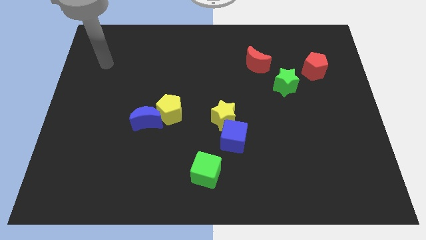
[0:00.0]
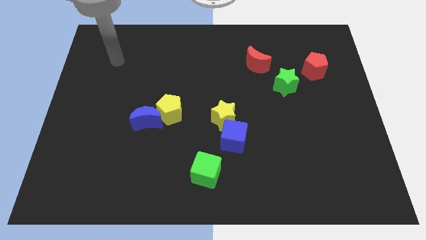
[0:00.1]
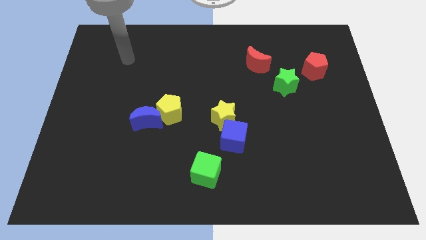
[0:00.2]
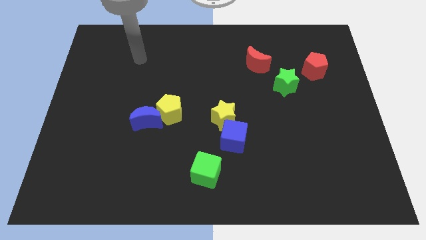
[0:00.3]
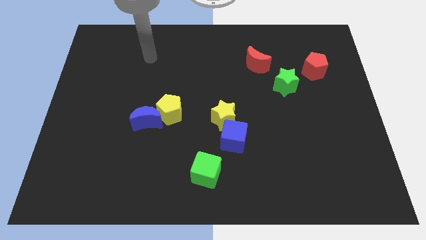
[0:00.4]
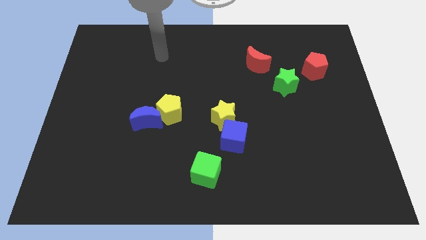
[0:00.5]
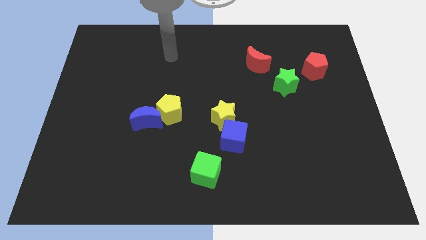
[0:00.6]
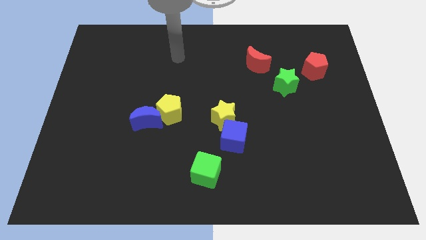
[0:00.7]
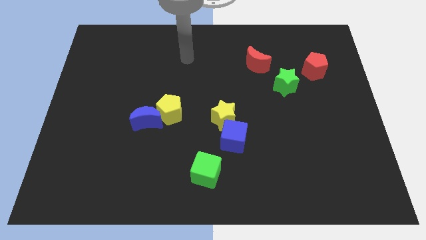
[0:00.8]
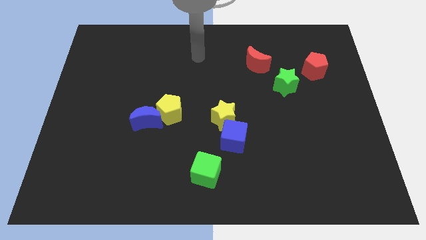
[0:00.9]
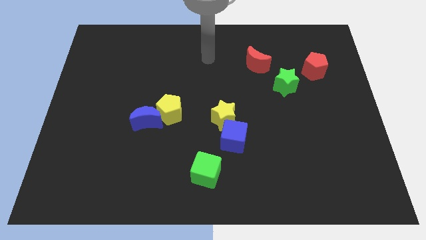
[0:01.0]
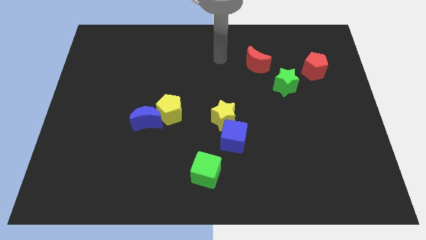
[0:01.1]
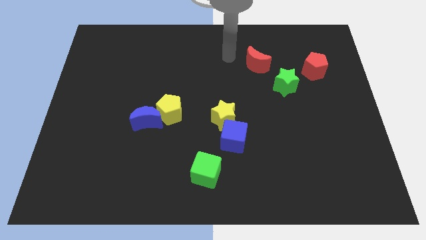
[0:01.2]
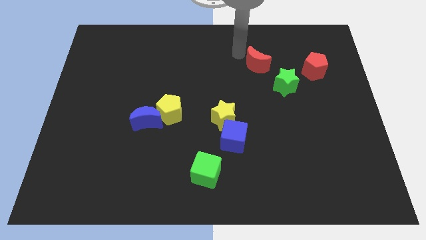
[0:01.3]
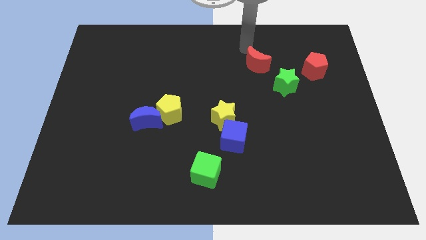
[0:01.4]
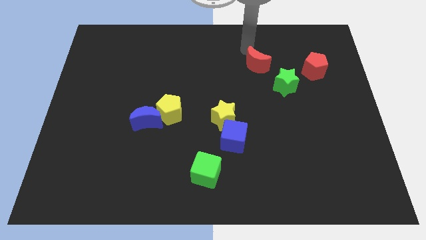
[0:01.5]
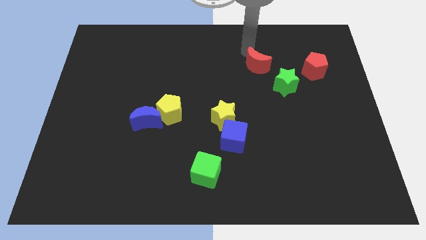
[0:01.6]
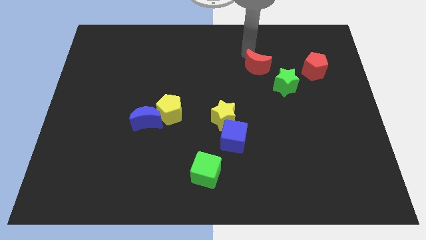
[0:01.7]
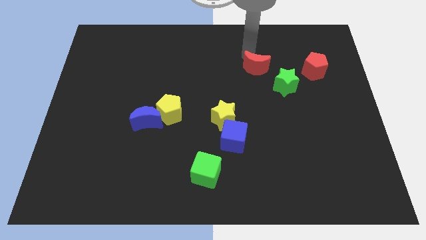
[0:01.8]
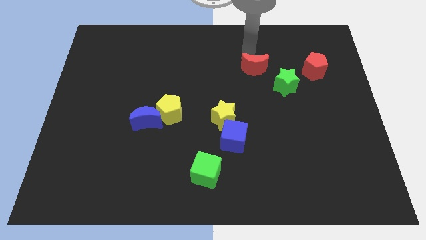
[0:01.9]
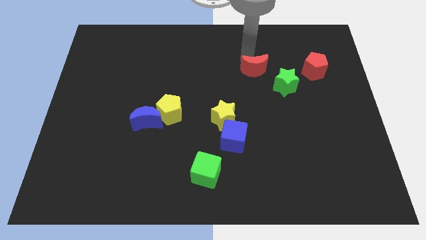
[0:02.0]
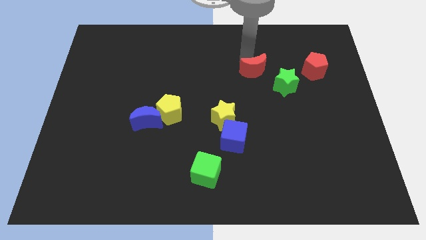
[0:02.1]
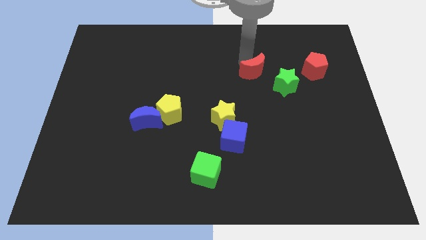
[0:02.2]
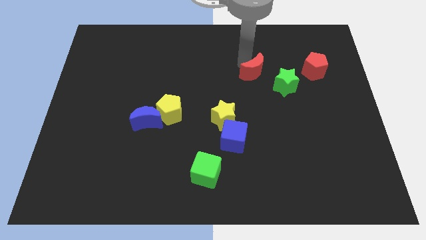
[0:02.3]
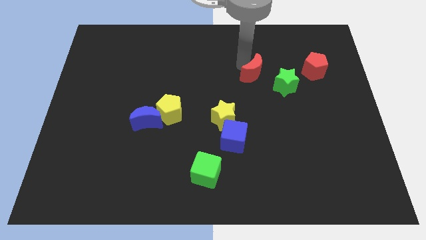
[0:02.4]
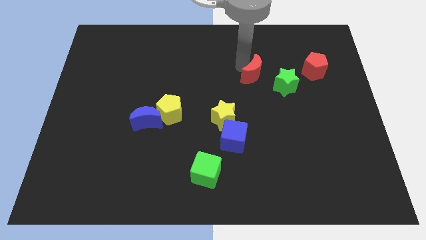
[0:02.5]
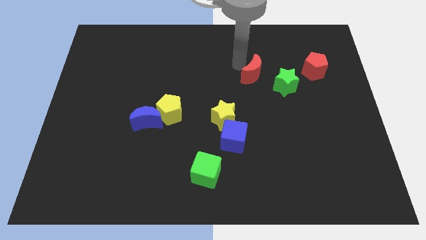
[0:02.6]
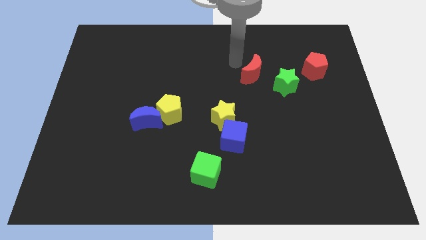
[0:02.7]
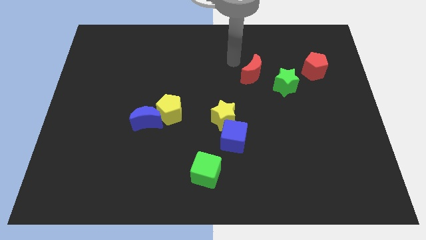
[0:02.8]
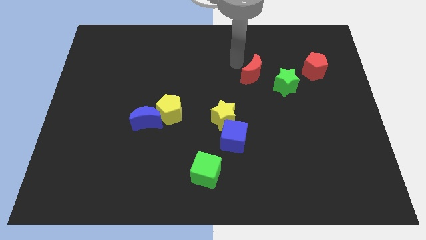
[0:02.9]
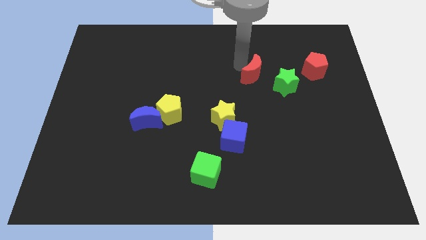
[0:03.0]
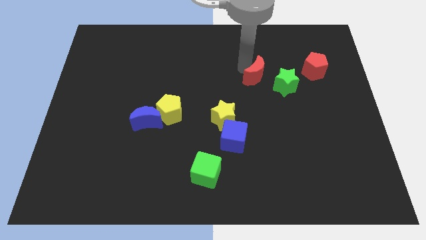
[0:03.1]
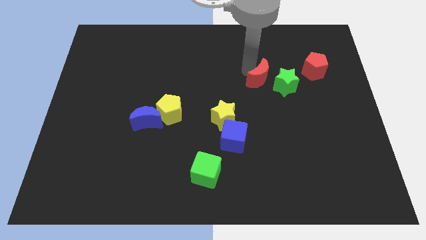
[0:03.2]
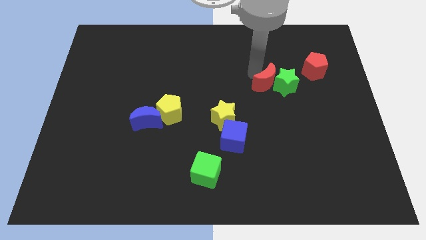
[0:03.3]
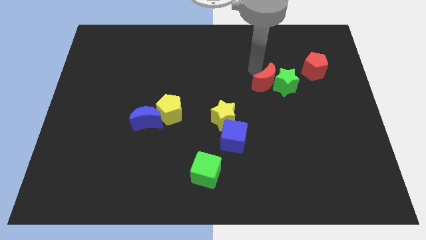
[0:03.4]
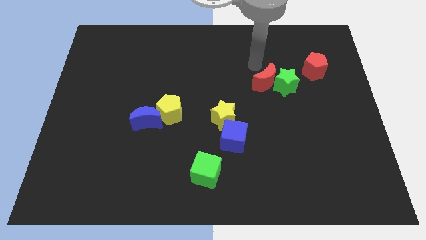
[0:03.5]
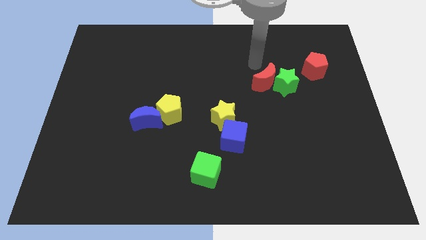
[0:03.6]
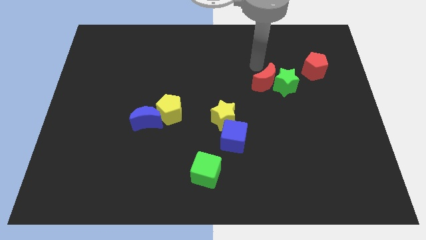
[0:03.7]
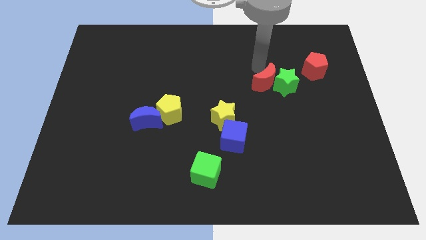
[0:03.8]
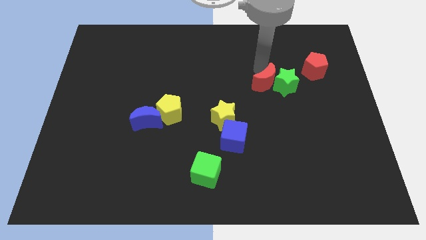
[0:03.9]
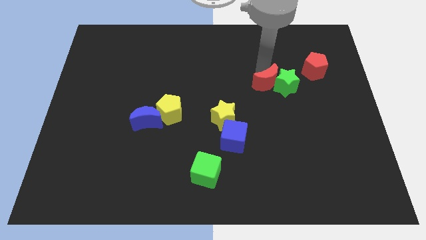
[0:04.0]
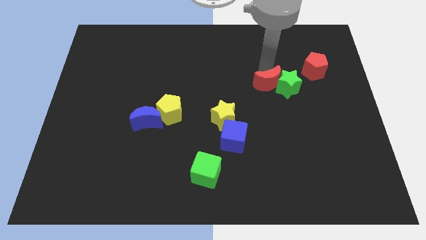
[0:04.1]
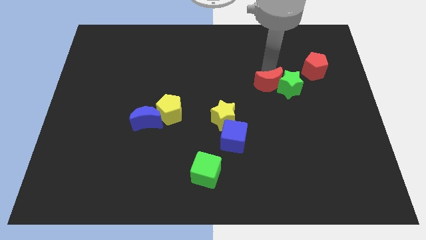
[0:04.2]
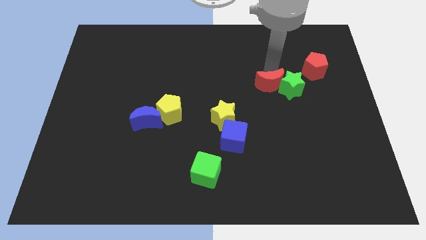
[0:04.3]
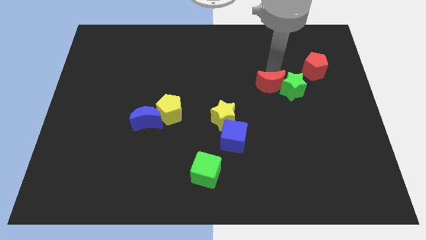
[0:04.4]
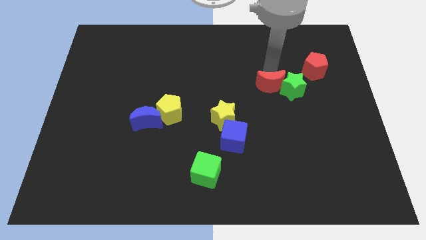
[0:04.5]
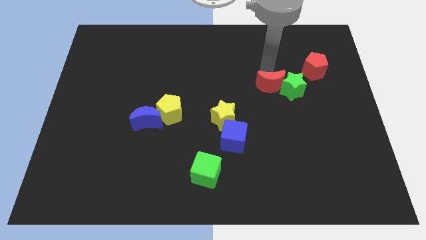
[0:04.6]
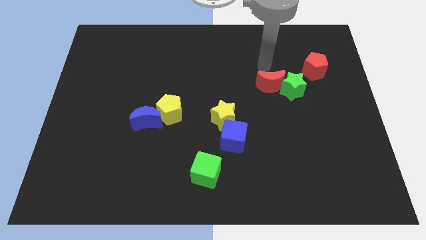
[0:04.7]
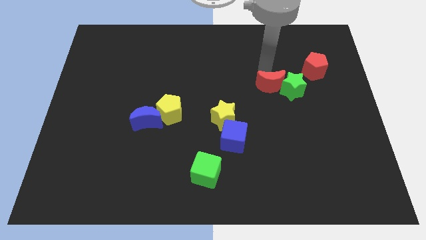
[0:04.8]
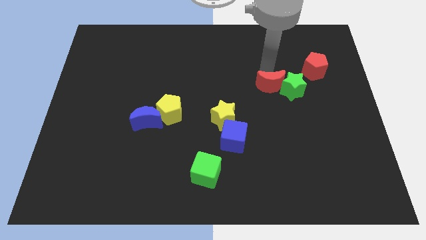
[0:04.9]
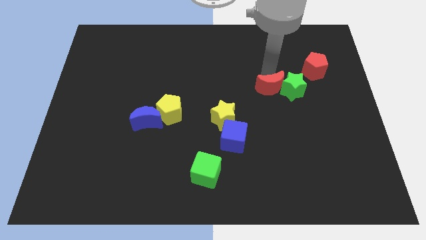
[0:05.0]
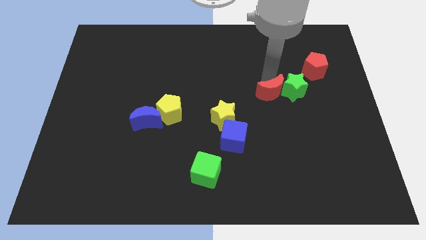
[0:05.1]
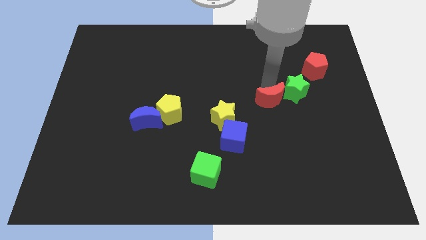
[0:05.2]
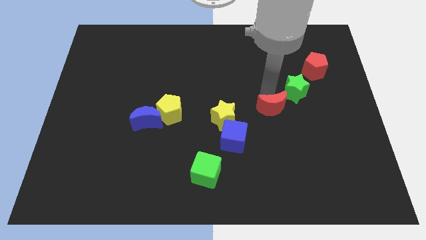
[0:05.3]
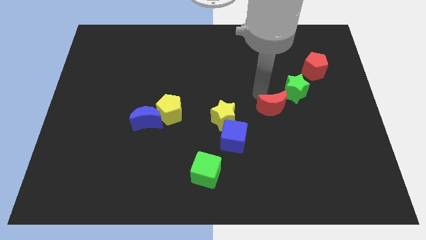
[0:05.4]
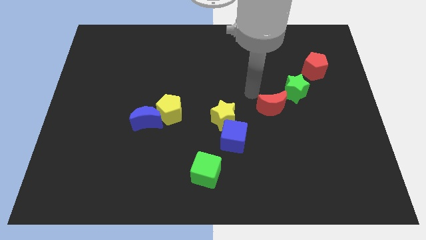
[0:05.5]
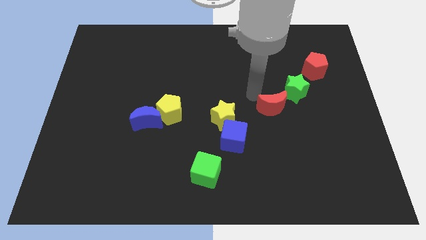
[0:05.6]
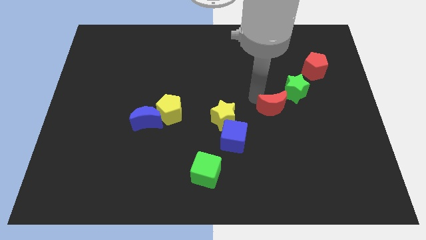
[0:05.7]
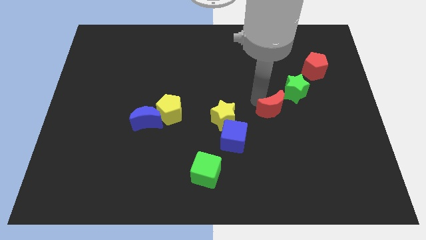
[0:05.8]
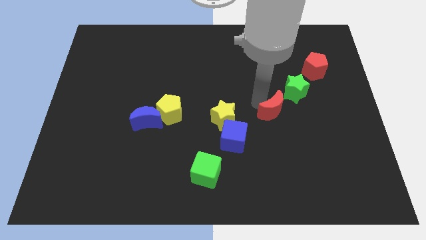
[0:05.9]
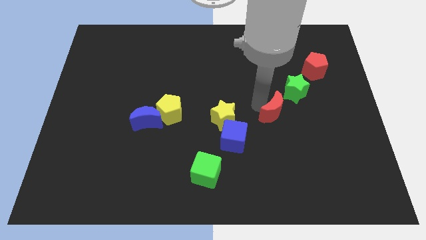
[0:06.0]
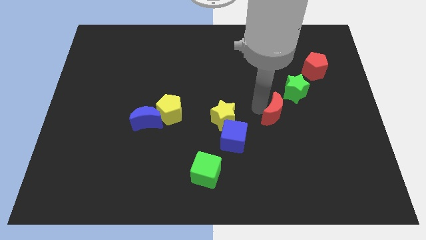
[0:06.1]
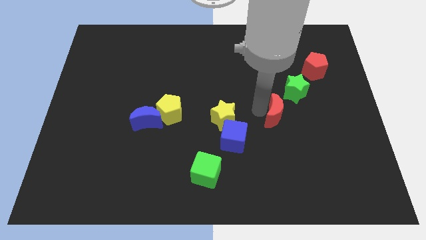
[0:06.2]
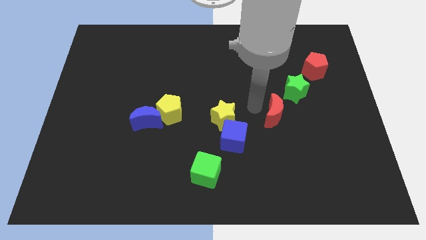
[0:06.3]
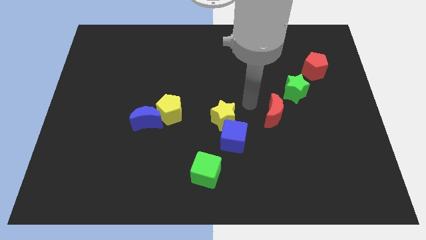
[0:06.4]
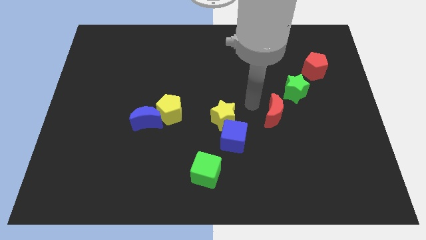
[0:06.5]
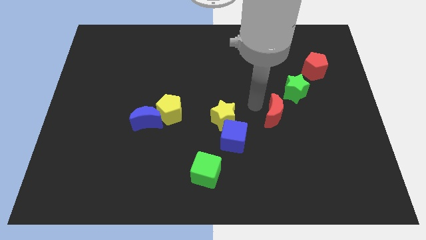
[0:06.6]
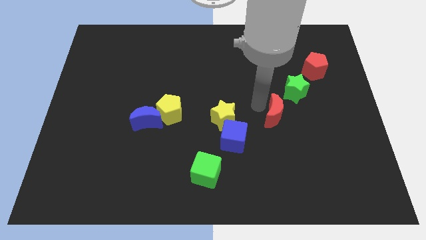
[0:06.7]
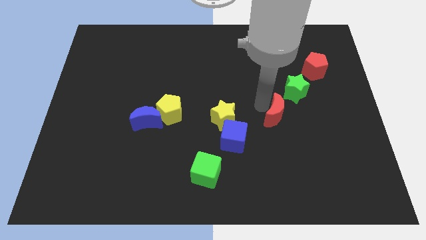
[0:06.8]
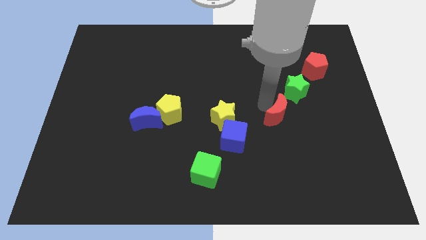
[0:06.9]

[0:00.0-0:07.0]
move the red moon below the green star
